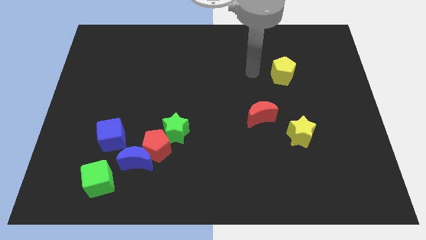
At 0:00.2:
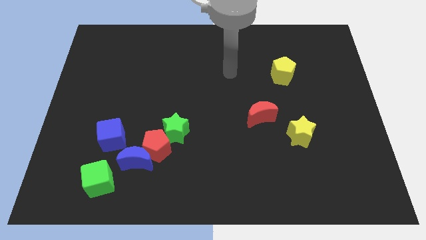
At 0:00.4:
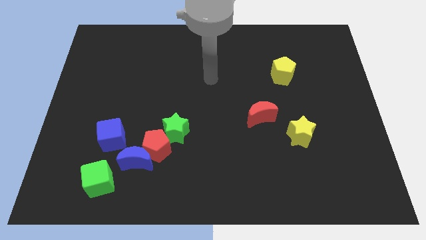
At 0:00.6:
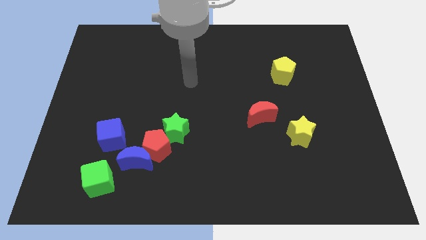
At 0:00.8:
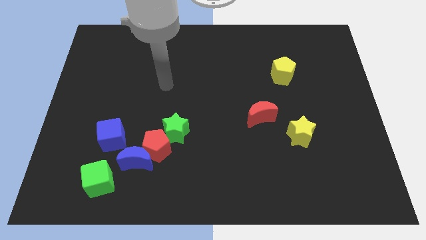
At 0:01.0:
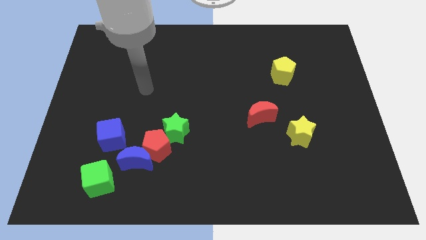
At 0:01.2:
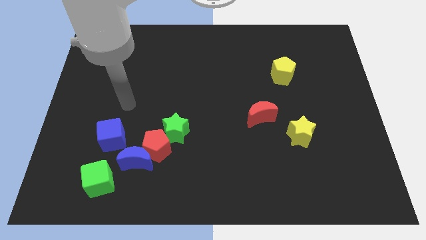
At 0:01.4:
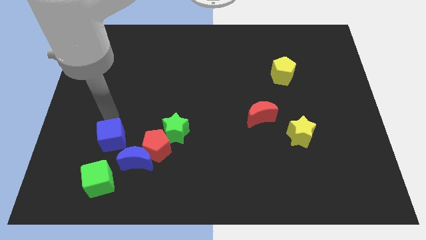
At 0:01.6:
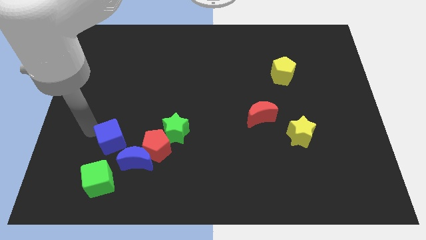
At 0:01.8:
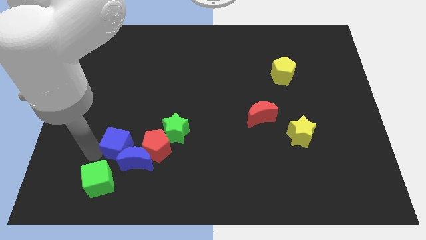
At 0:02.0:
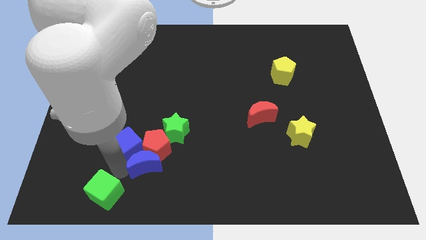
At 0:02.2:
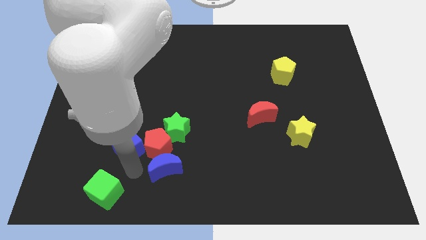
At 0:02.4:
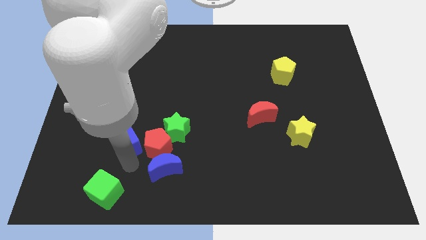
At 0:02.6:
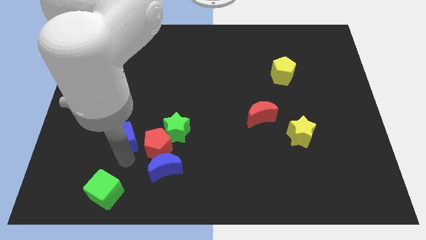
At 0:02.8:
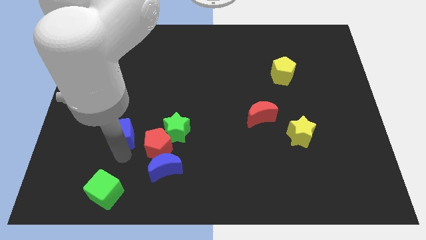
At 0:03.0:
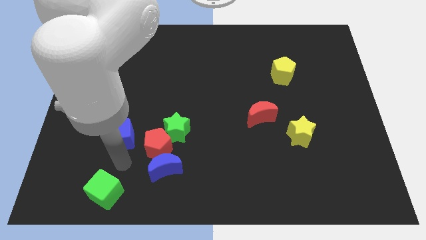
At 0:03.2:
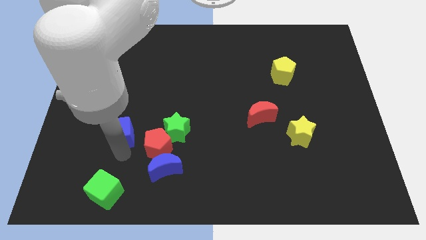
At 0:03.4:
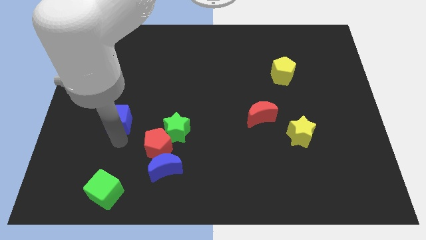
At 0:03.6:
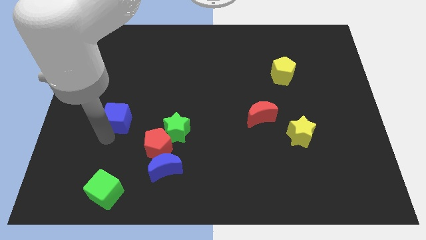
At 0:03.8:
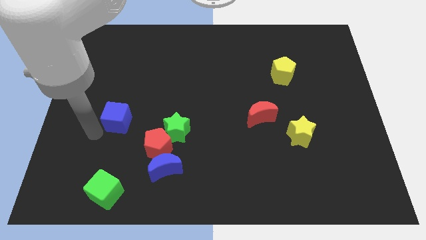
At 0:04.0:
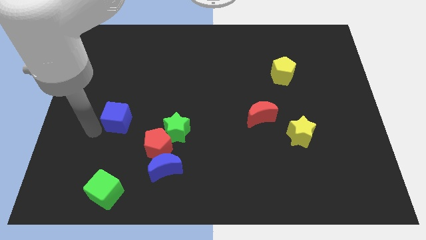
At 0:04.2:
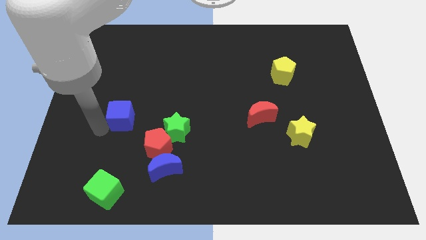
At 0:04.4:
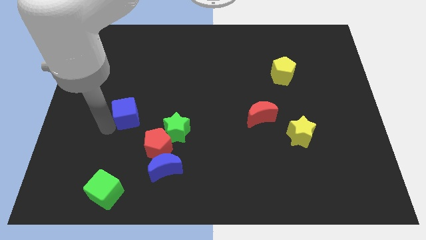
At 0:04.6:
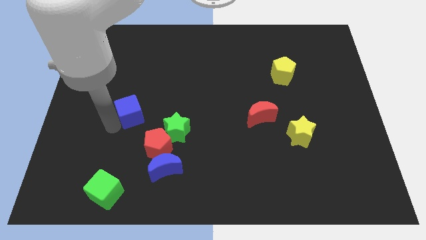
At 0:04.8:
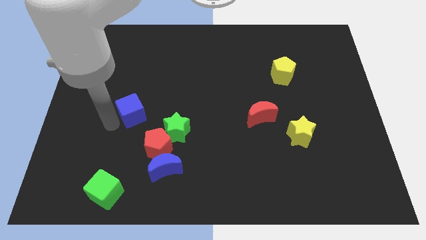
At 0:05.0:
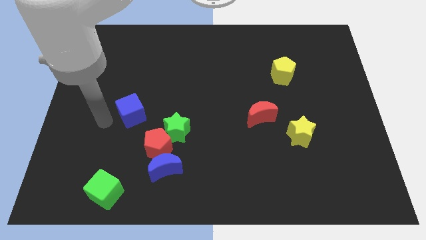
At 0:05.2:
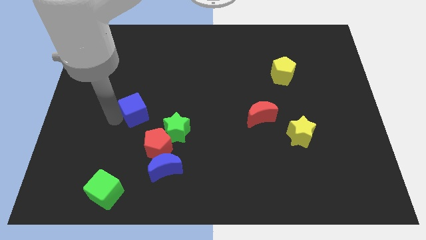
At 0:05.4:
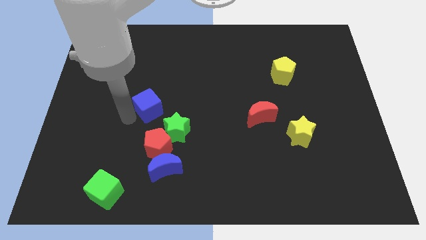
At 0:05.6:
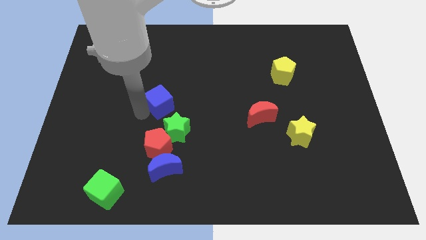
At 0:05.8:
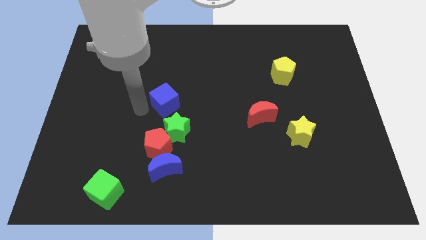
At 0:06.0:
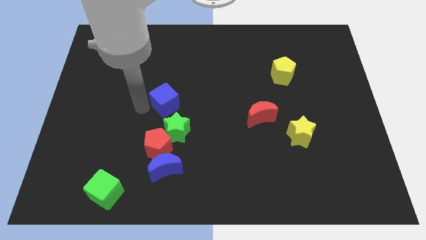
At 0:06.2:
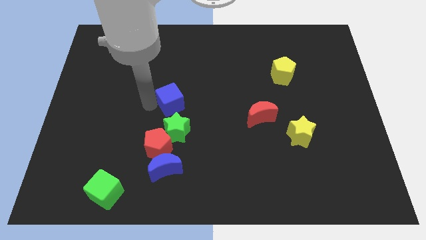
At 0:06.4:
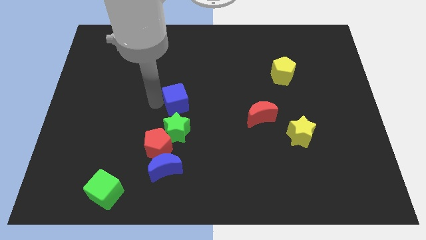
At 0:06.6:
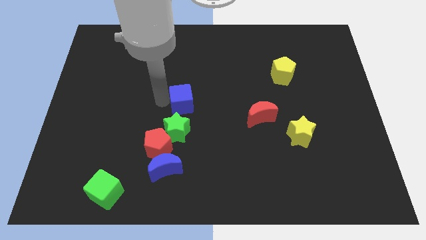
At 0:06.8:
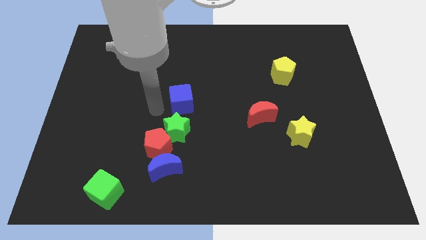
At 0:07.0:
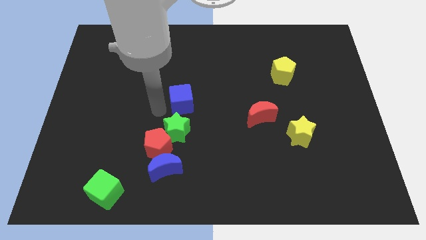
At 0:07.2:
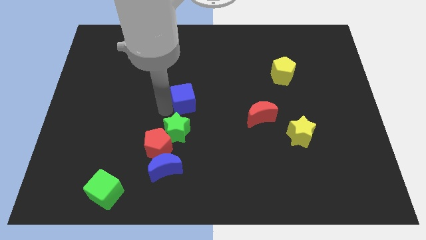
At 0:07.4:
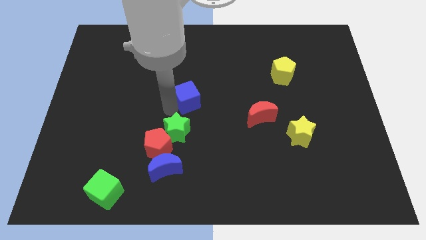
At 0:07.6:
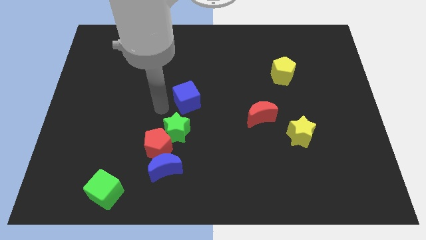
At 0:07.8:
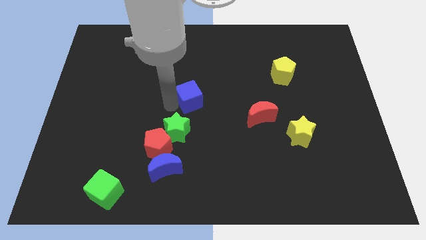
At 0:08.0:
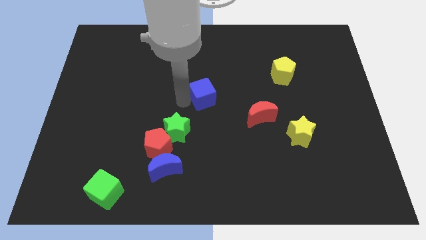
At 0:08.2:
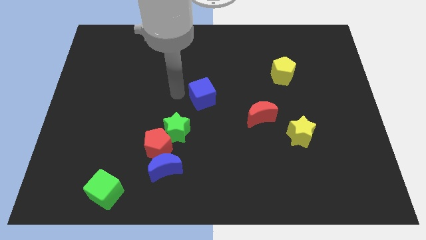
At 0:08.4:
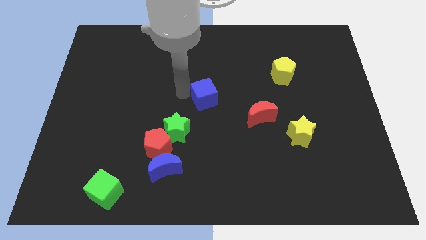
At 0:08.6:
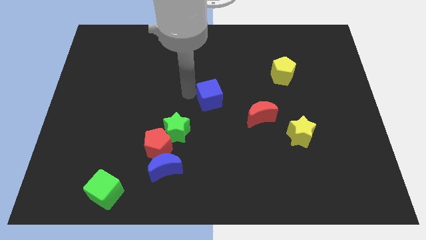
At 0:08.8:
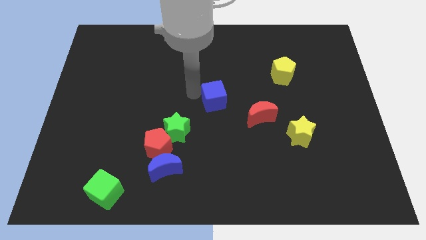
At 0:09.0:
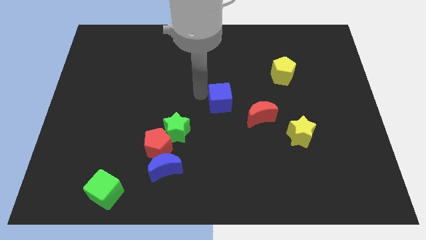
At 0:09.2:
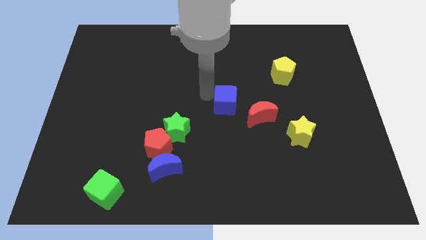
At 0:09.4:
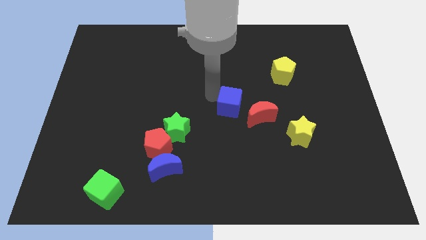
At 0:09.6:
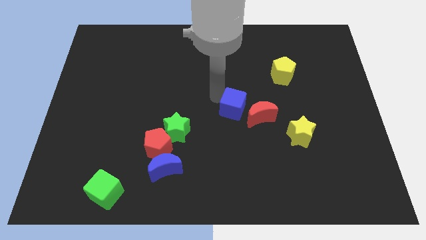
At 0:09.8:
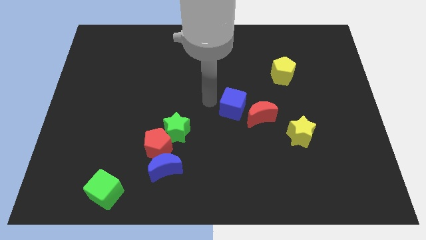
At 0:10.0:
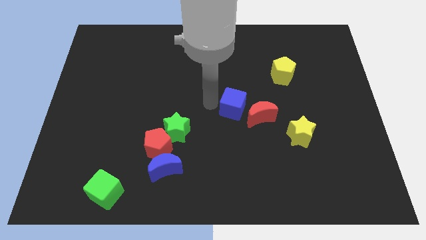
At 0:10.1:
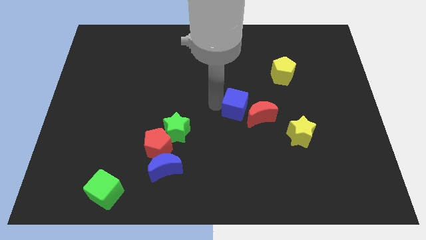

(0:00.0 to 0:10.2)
push the blue cube towards the red moon

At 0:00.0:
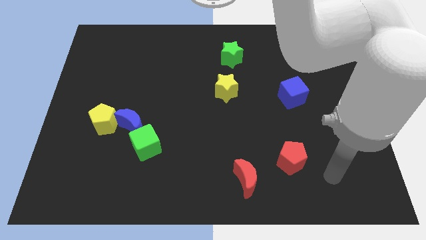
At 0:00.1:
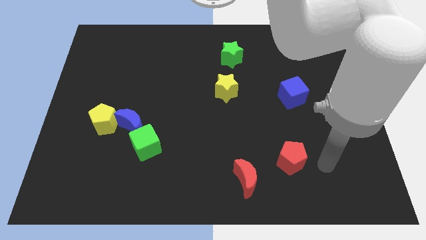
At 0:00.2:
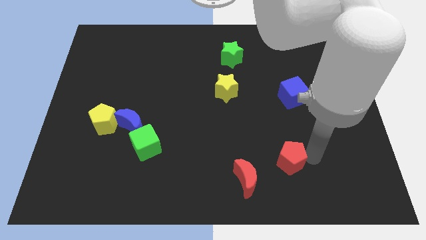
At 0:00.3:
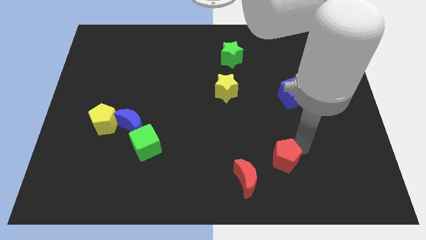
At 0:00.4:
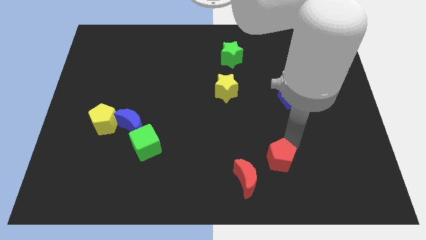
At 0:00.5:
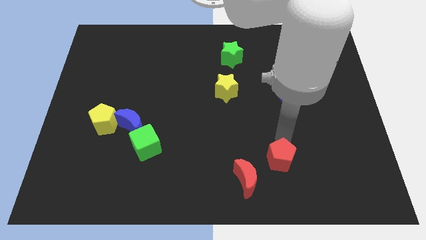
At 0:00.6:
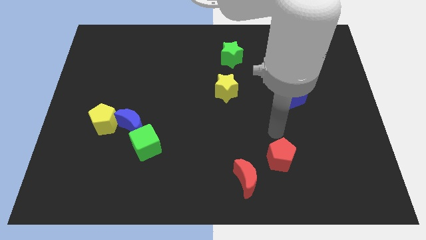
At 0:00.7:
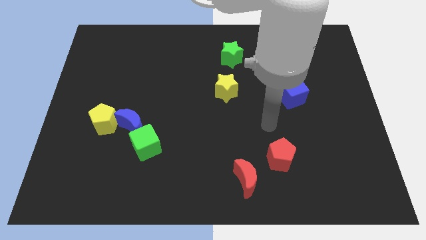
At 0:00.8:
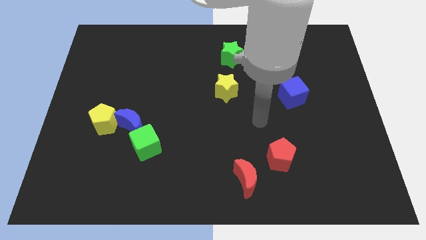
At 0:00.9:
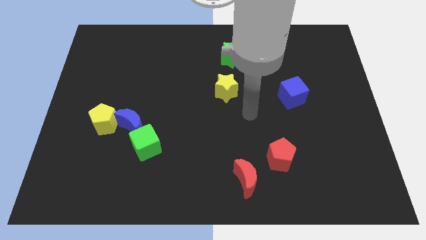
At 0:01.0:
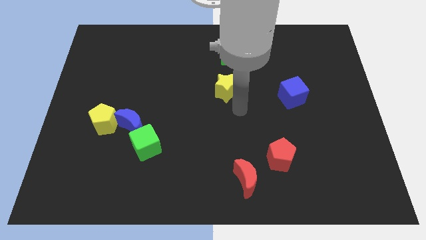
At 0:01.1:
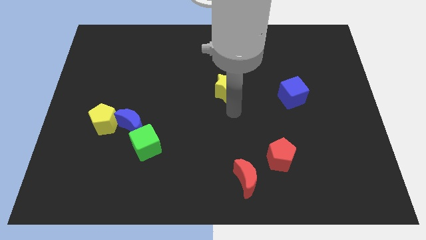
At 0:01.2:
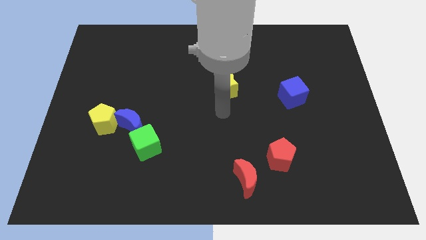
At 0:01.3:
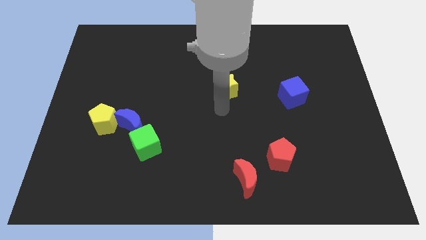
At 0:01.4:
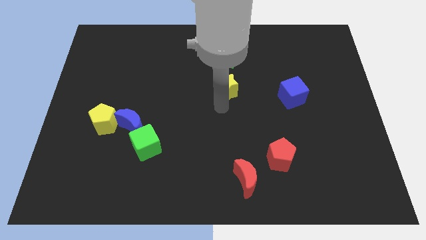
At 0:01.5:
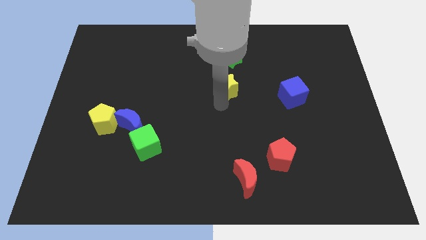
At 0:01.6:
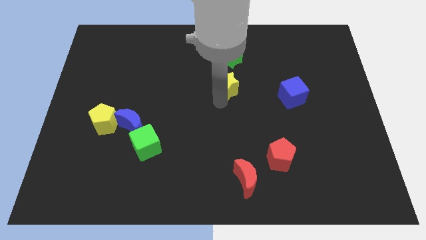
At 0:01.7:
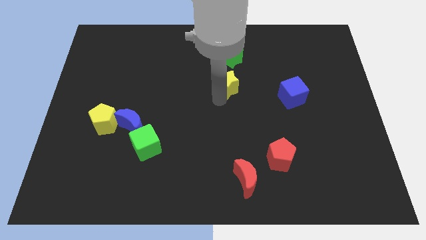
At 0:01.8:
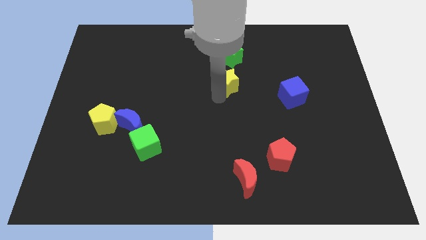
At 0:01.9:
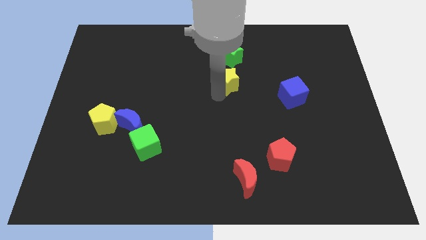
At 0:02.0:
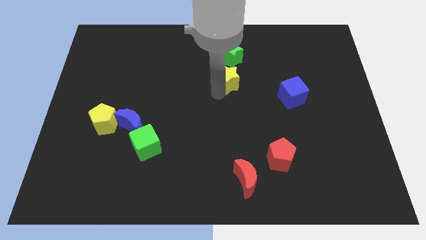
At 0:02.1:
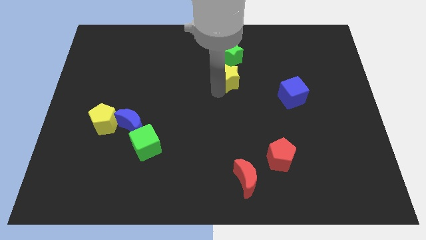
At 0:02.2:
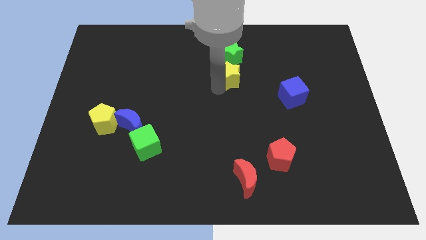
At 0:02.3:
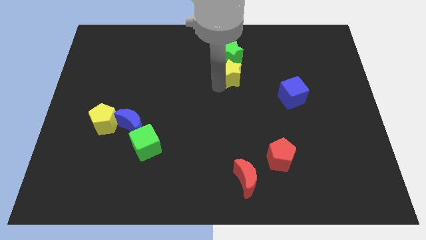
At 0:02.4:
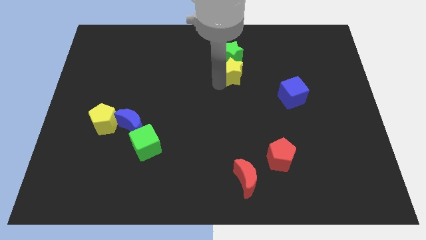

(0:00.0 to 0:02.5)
push the yellow star close to the green star
